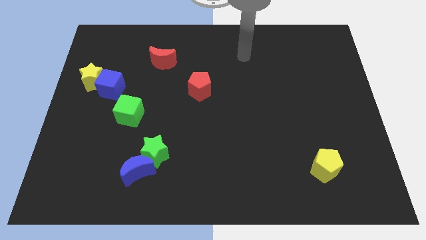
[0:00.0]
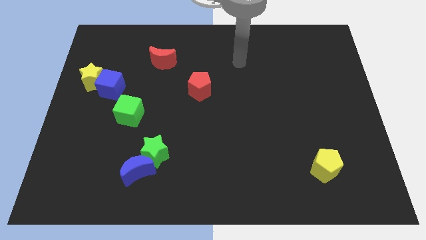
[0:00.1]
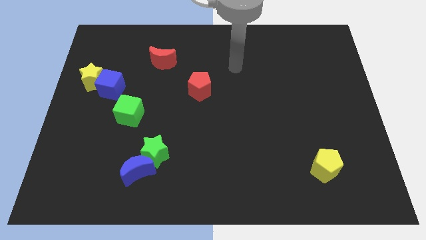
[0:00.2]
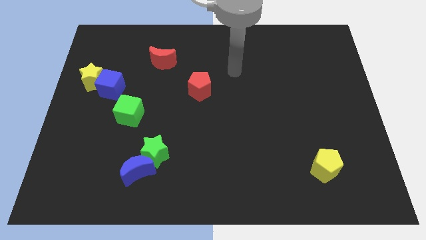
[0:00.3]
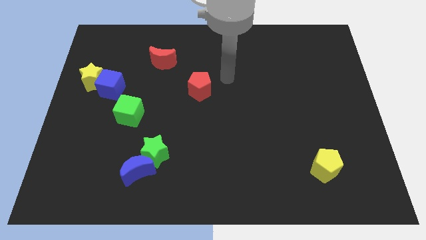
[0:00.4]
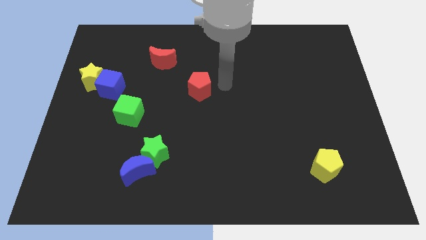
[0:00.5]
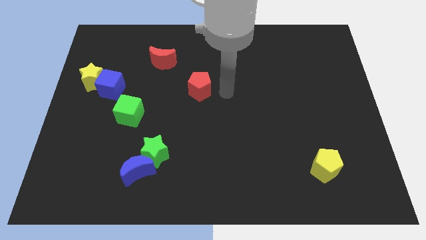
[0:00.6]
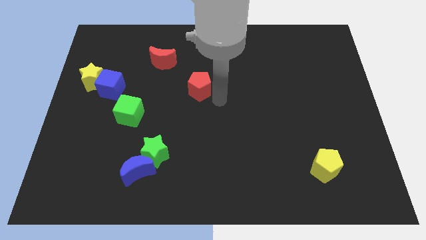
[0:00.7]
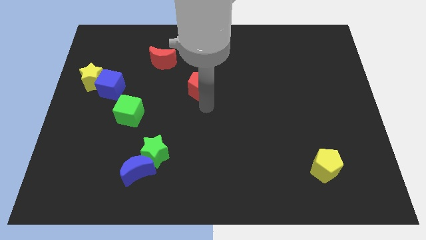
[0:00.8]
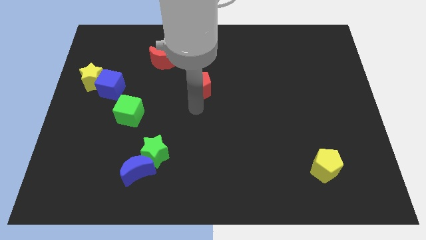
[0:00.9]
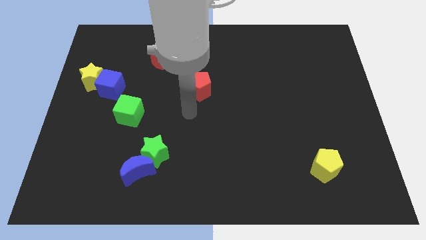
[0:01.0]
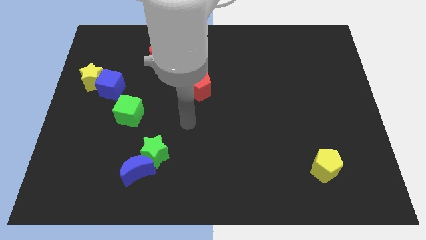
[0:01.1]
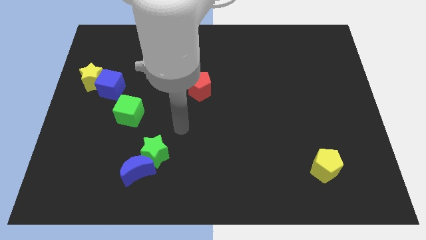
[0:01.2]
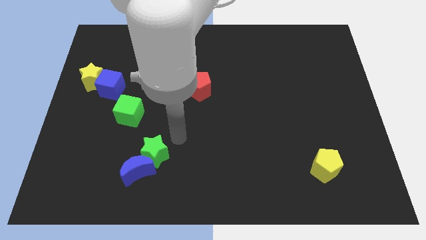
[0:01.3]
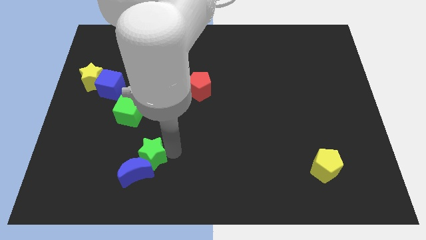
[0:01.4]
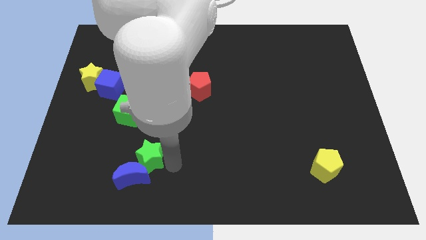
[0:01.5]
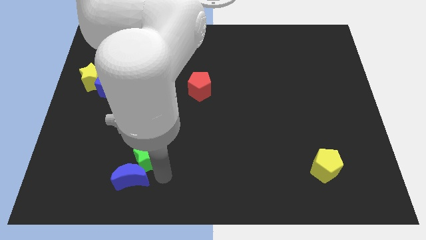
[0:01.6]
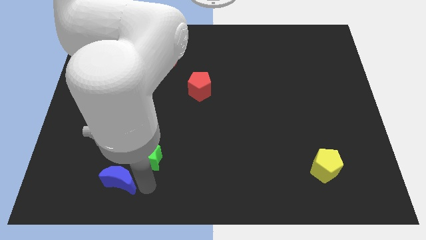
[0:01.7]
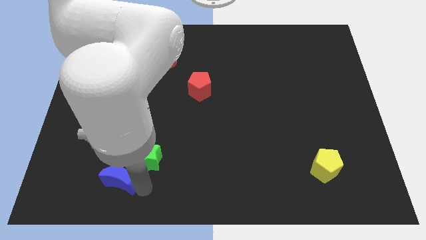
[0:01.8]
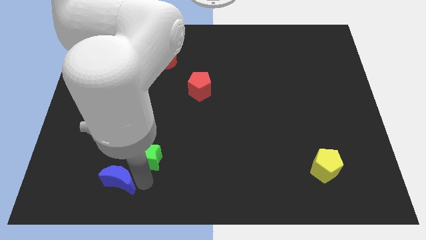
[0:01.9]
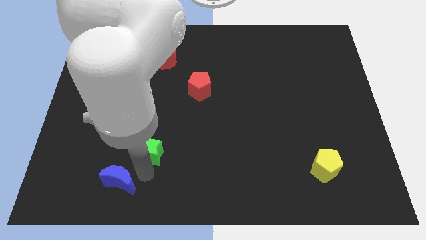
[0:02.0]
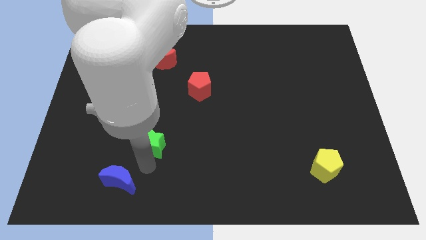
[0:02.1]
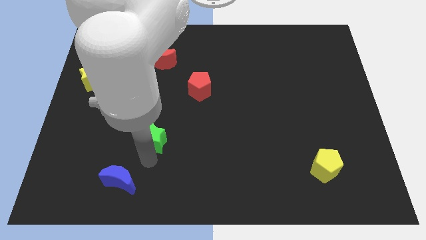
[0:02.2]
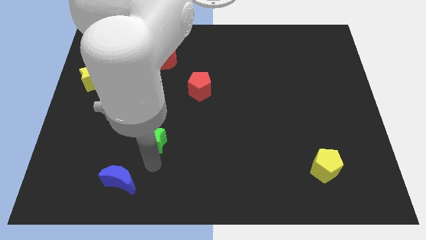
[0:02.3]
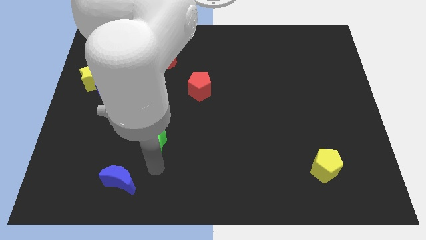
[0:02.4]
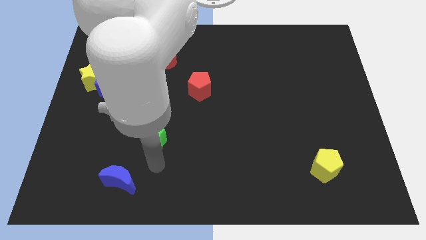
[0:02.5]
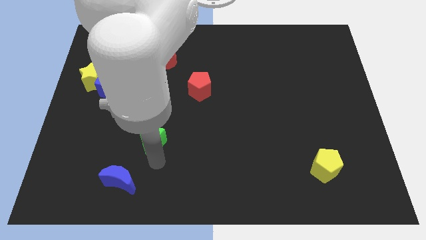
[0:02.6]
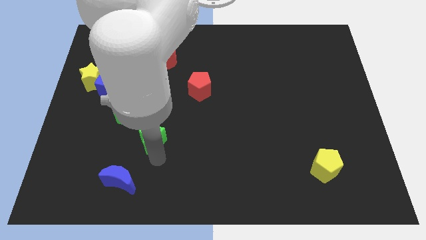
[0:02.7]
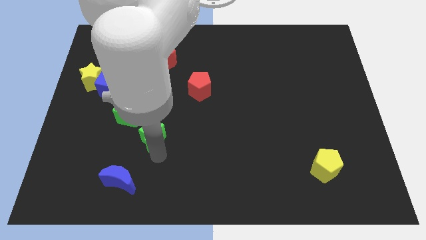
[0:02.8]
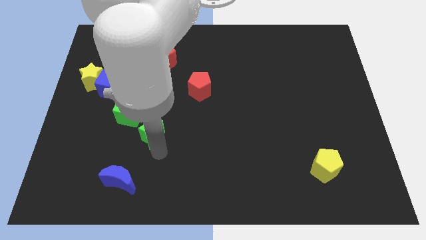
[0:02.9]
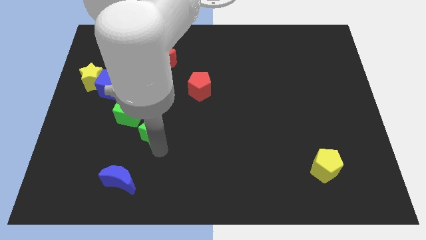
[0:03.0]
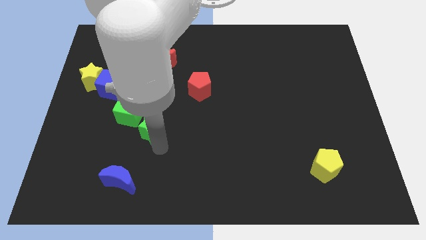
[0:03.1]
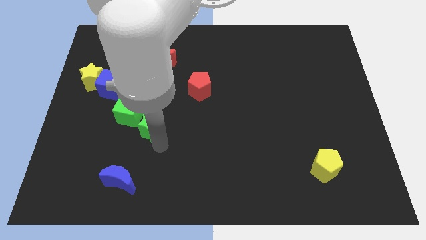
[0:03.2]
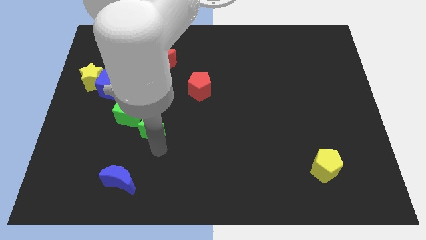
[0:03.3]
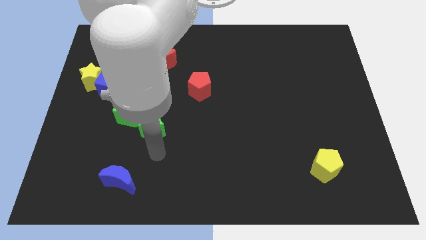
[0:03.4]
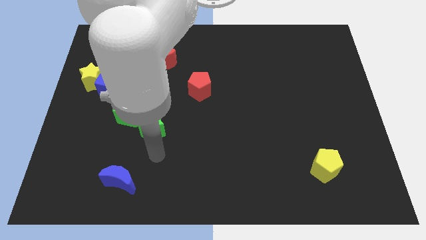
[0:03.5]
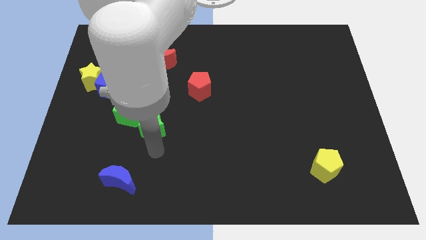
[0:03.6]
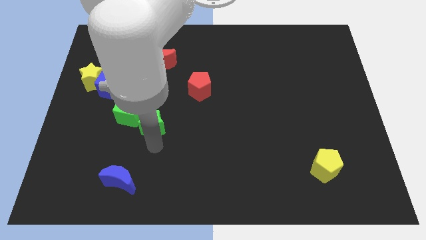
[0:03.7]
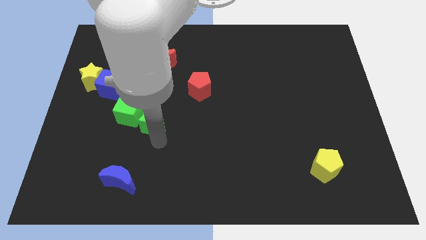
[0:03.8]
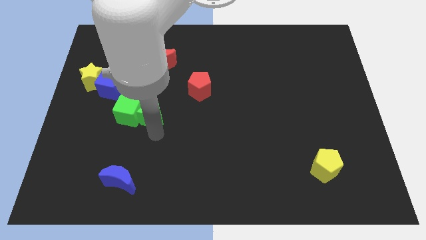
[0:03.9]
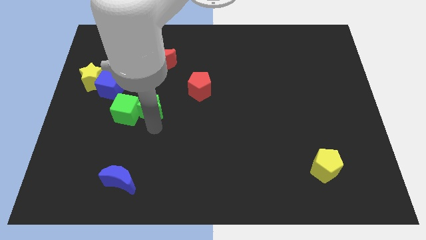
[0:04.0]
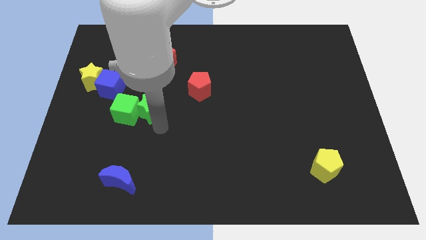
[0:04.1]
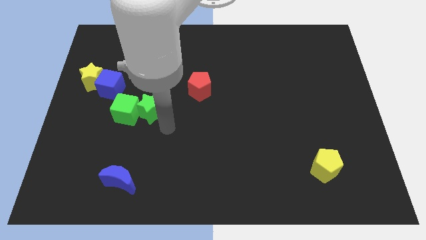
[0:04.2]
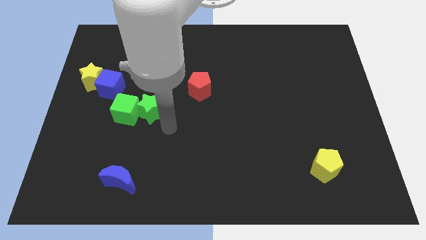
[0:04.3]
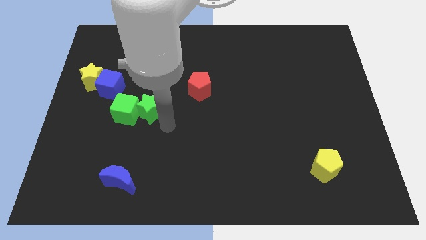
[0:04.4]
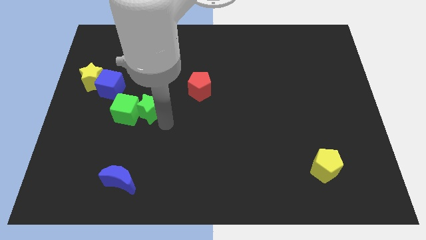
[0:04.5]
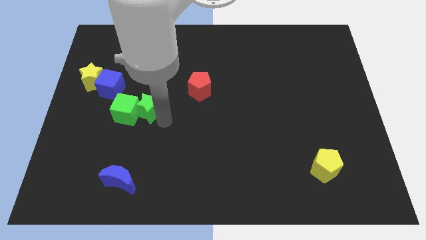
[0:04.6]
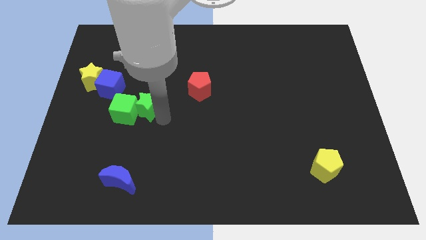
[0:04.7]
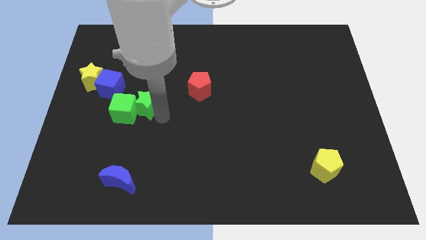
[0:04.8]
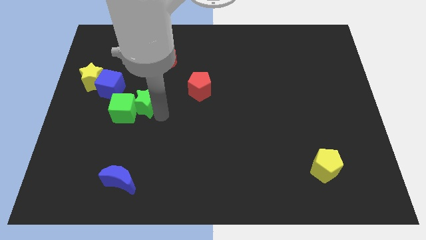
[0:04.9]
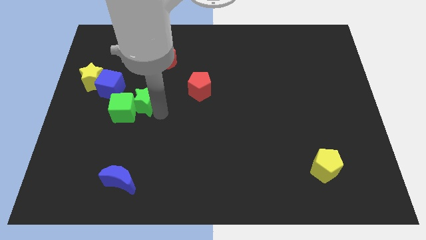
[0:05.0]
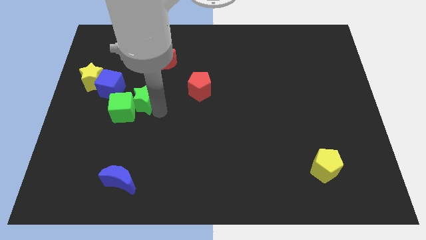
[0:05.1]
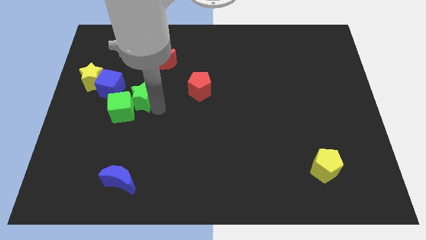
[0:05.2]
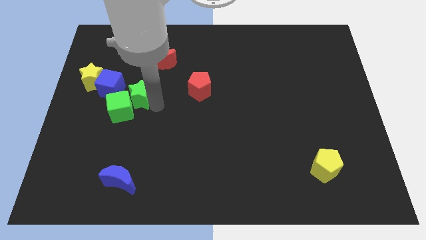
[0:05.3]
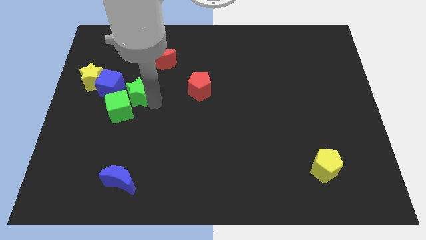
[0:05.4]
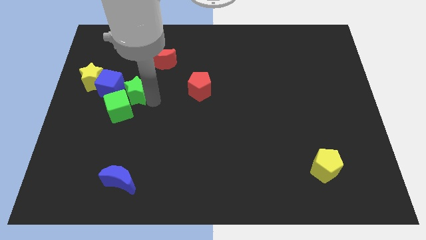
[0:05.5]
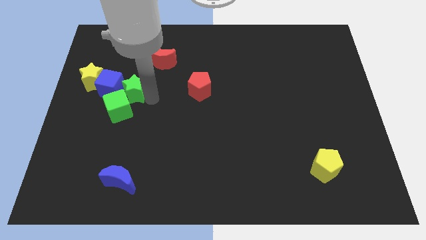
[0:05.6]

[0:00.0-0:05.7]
move the green star next to the blue cube

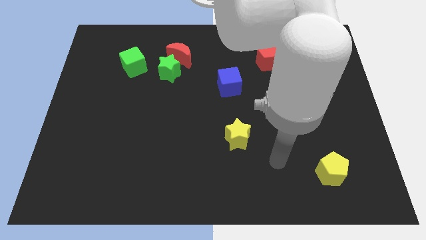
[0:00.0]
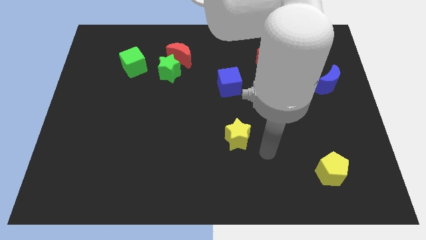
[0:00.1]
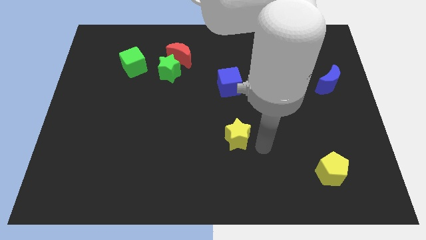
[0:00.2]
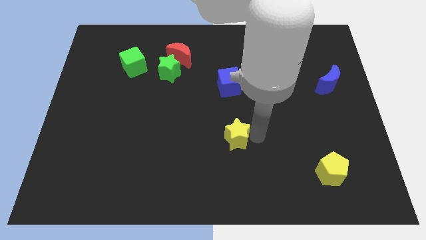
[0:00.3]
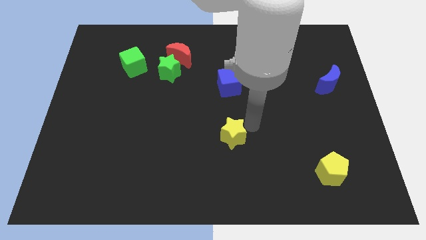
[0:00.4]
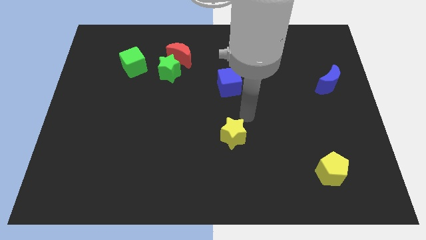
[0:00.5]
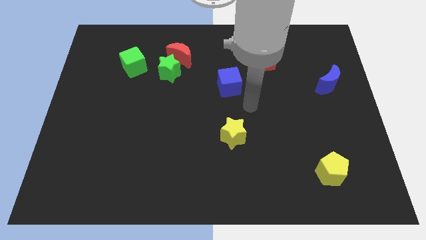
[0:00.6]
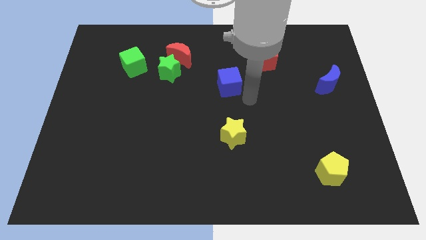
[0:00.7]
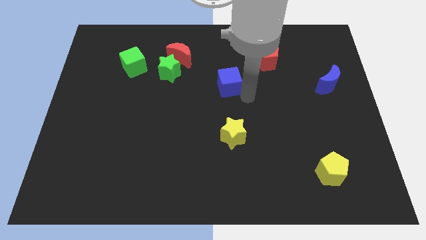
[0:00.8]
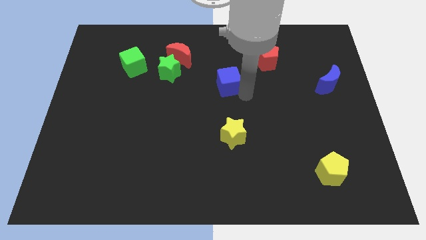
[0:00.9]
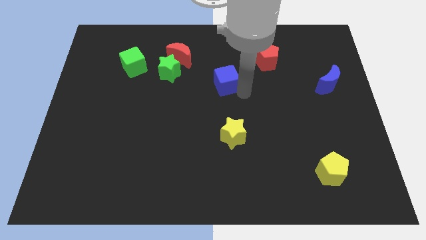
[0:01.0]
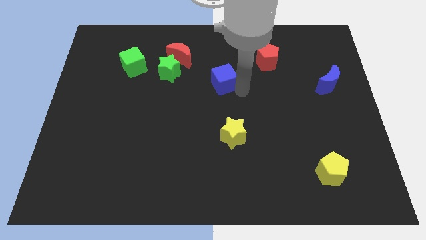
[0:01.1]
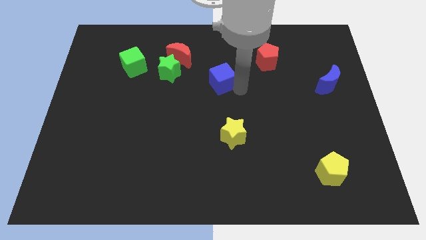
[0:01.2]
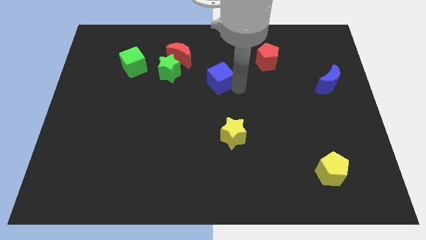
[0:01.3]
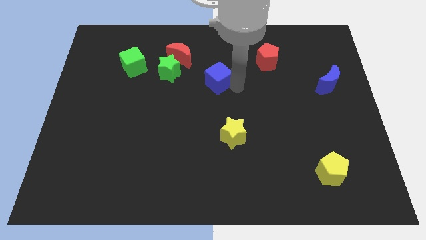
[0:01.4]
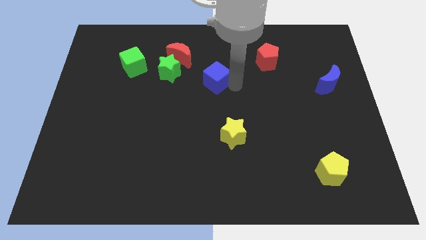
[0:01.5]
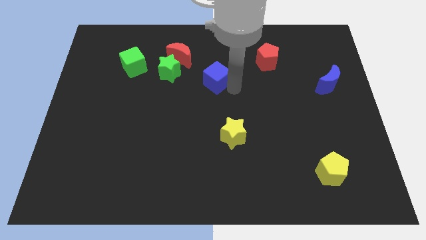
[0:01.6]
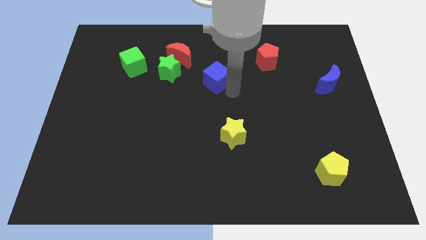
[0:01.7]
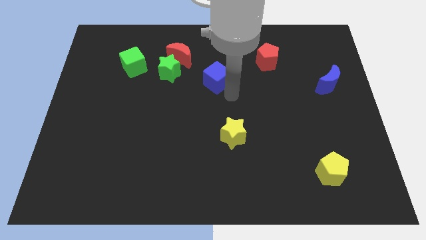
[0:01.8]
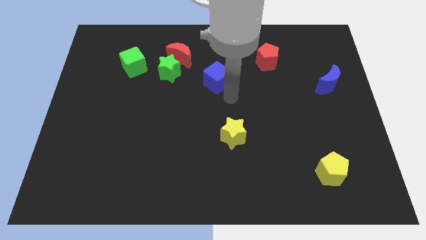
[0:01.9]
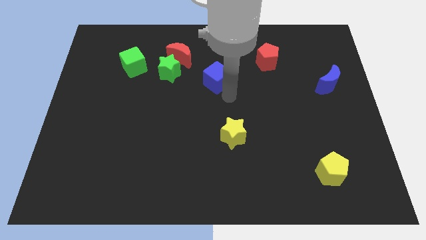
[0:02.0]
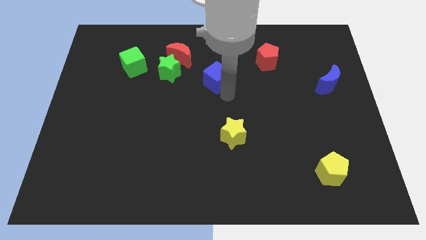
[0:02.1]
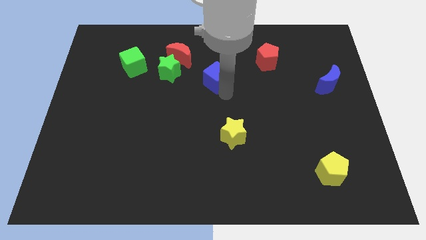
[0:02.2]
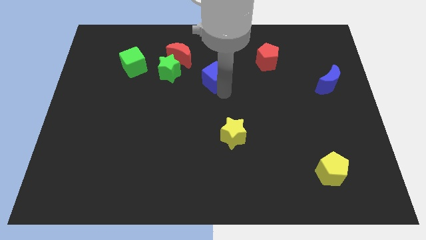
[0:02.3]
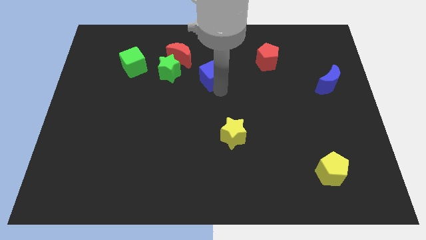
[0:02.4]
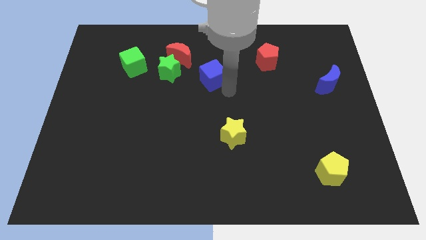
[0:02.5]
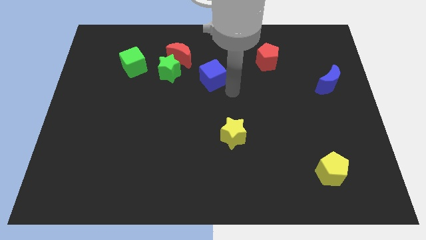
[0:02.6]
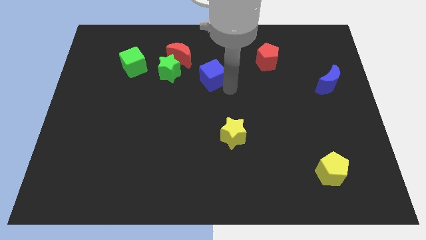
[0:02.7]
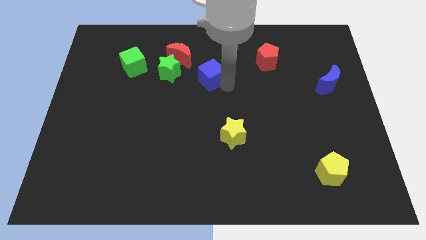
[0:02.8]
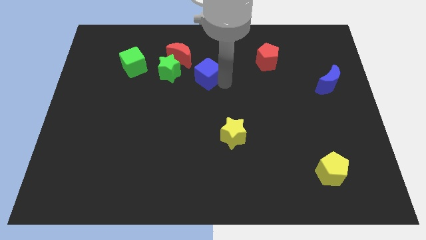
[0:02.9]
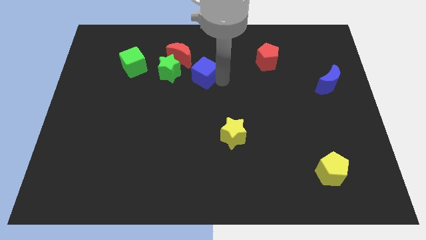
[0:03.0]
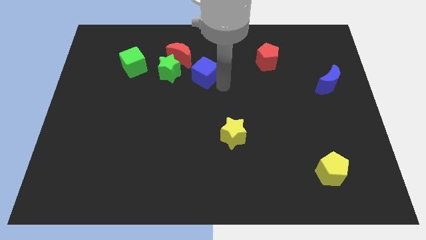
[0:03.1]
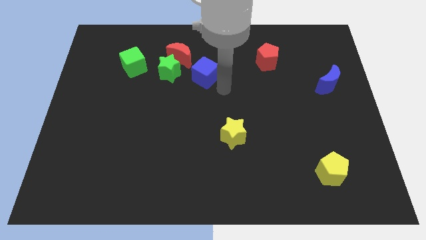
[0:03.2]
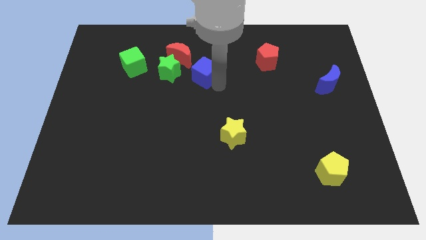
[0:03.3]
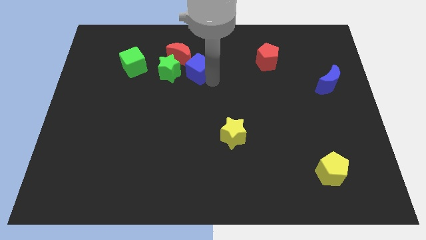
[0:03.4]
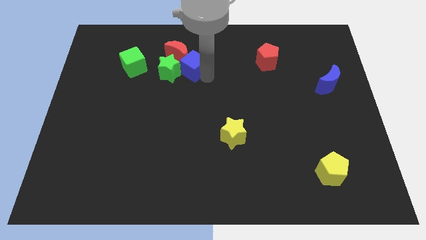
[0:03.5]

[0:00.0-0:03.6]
push the blue cube towards the red moon
